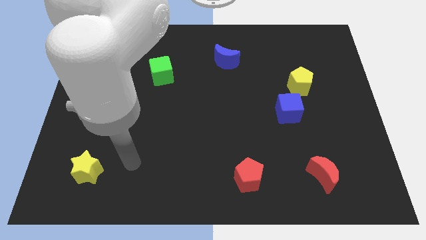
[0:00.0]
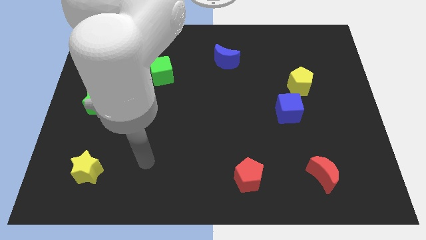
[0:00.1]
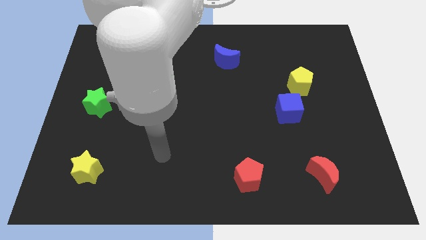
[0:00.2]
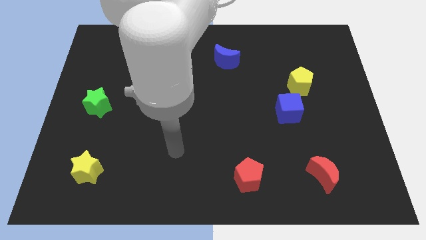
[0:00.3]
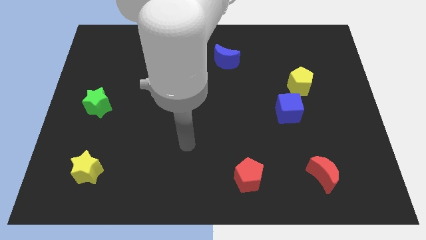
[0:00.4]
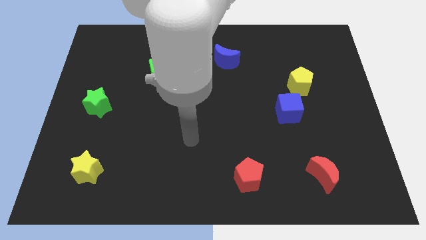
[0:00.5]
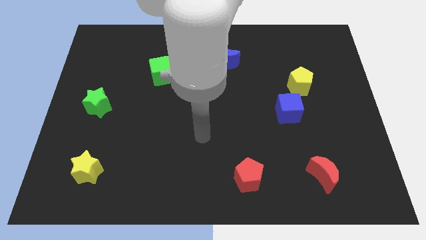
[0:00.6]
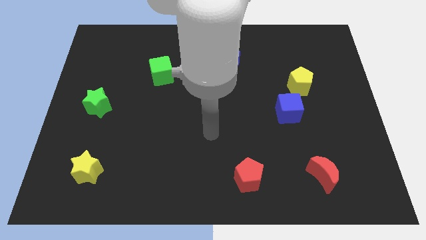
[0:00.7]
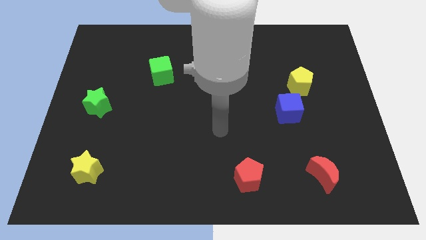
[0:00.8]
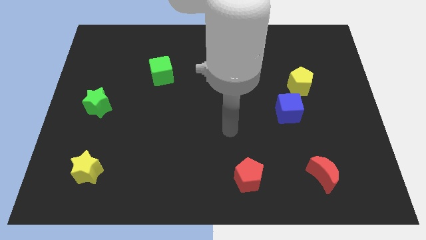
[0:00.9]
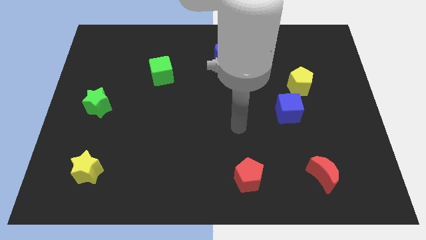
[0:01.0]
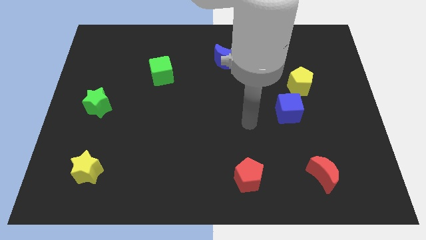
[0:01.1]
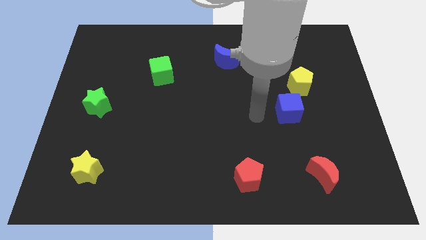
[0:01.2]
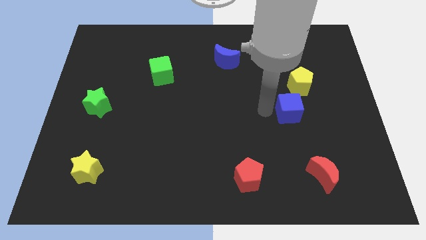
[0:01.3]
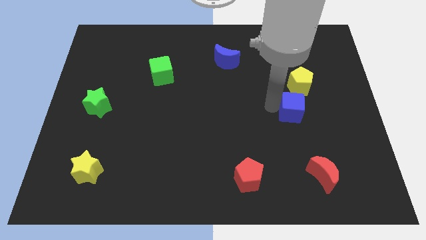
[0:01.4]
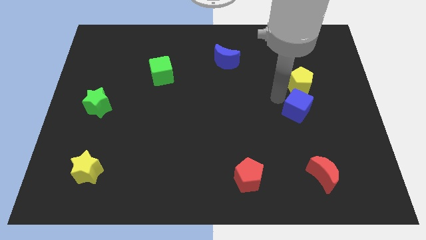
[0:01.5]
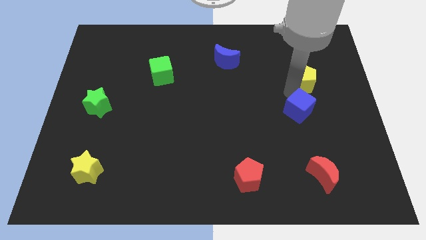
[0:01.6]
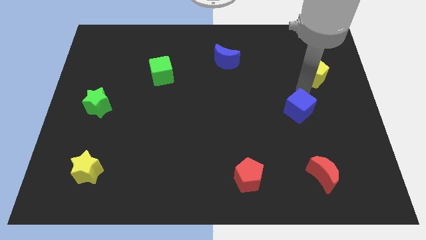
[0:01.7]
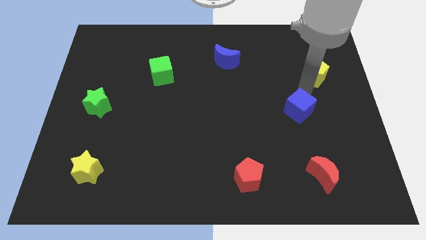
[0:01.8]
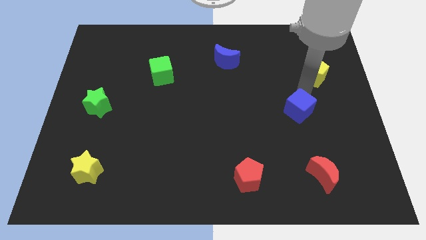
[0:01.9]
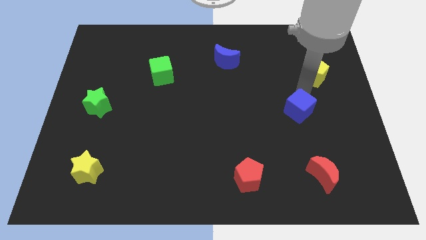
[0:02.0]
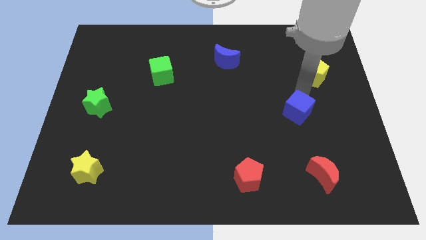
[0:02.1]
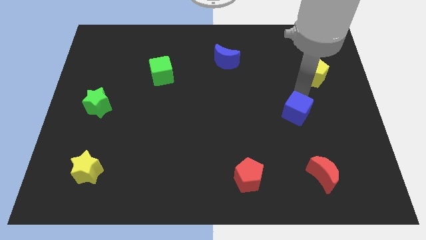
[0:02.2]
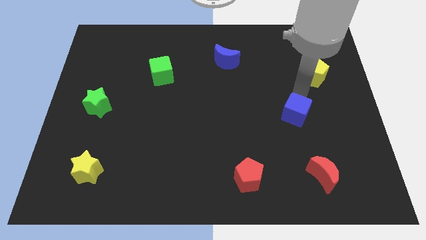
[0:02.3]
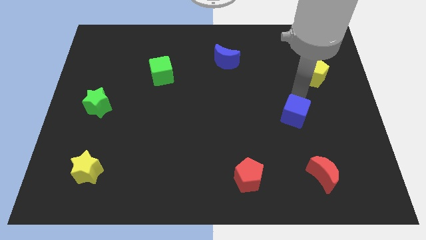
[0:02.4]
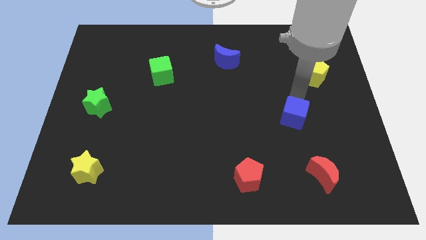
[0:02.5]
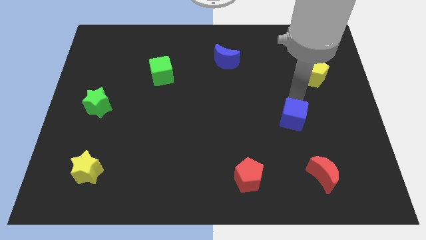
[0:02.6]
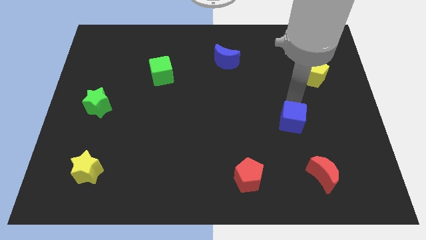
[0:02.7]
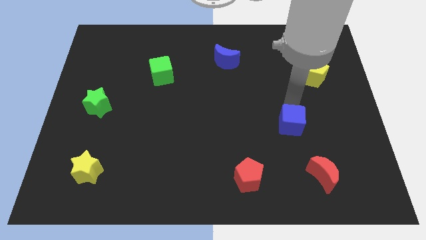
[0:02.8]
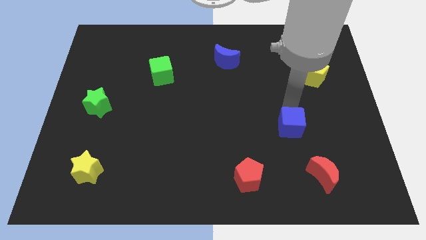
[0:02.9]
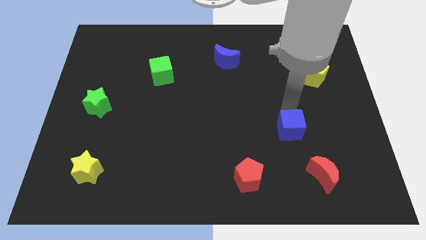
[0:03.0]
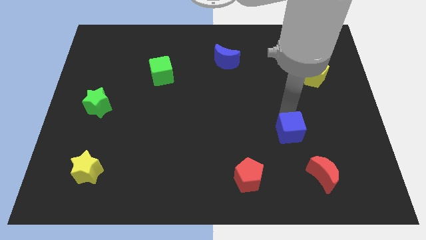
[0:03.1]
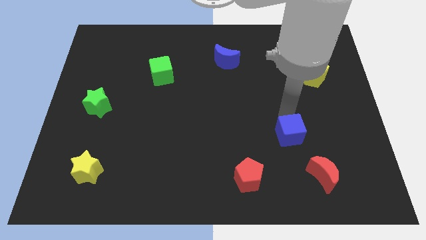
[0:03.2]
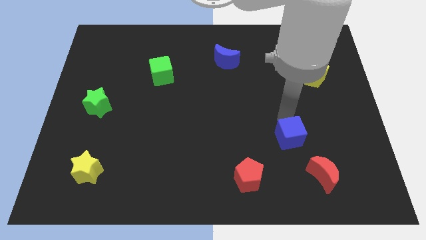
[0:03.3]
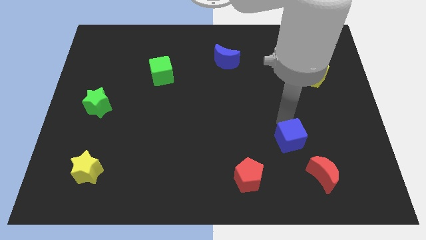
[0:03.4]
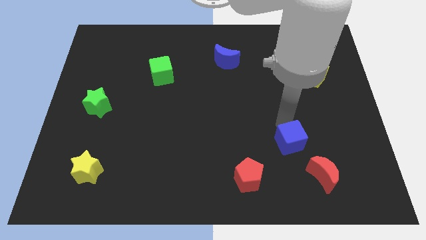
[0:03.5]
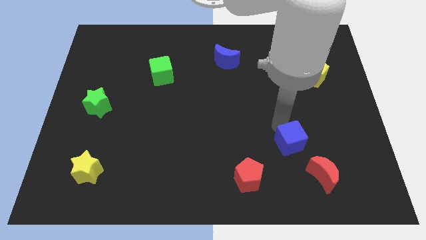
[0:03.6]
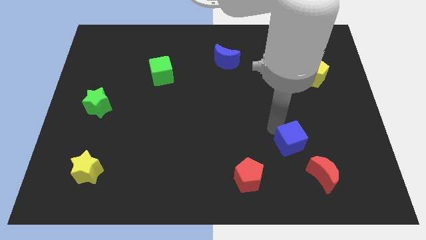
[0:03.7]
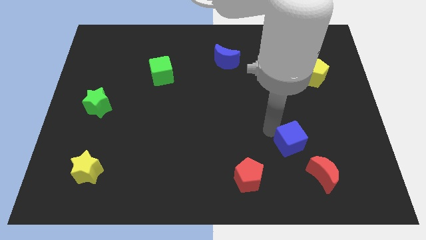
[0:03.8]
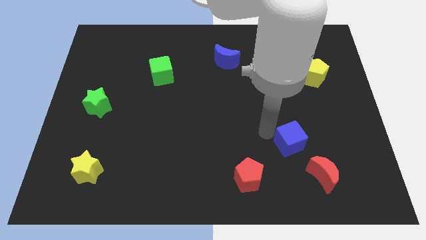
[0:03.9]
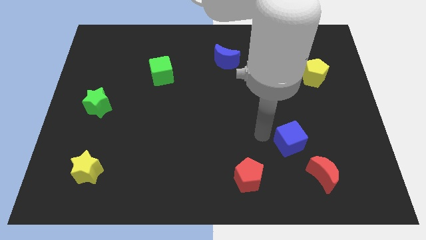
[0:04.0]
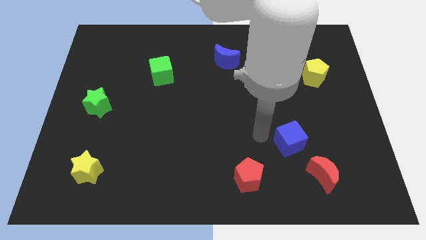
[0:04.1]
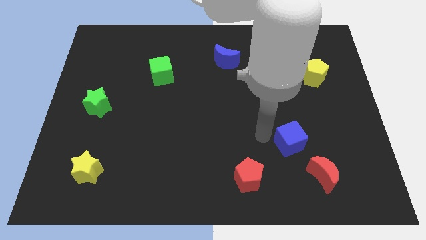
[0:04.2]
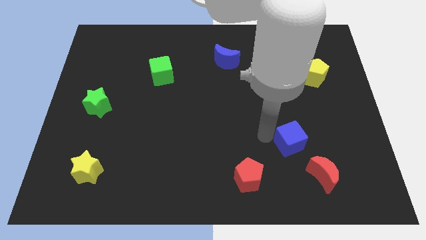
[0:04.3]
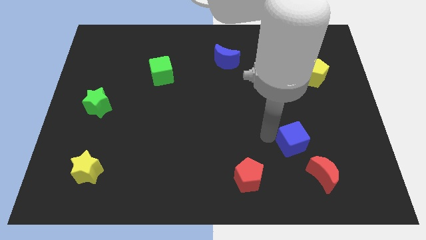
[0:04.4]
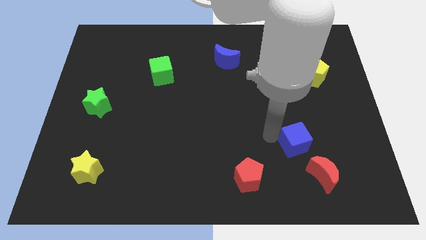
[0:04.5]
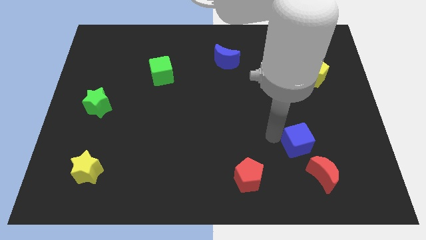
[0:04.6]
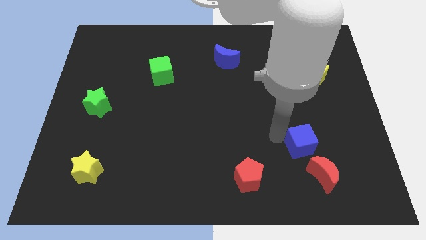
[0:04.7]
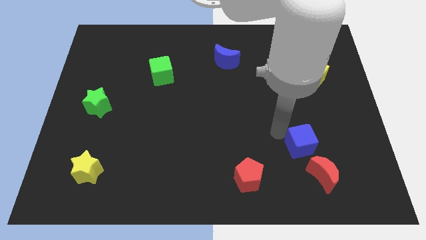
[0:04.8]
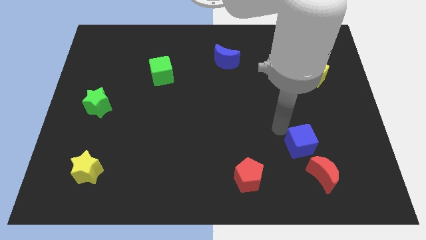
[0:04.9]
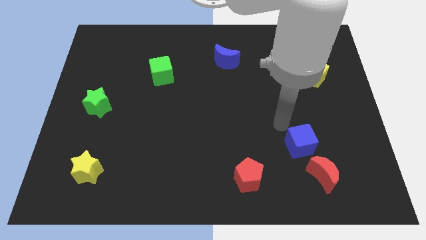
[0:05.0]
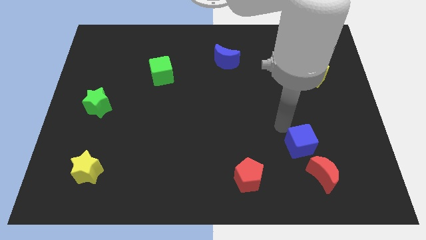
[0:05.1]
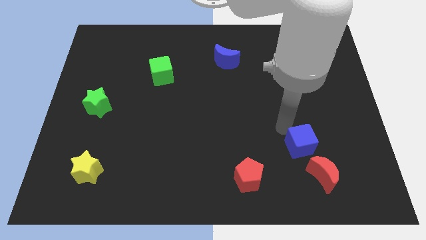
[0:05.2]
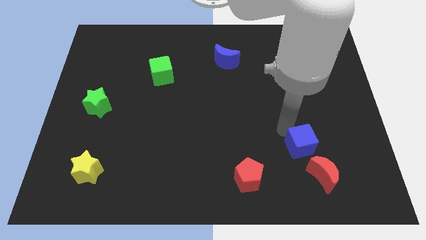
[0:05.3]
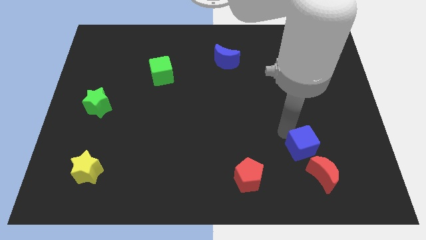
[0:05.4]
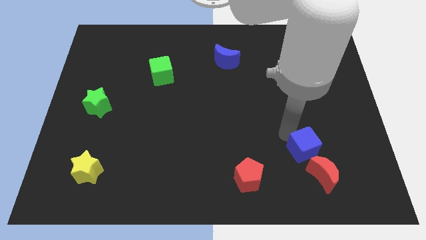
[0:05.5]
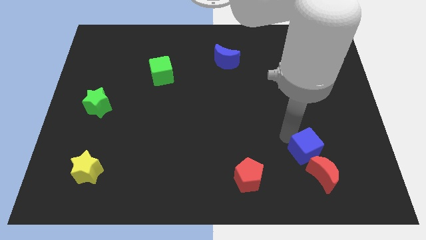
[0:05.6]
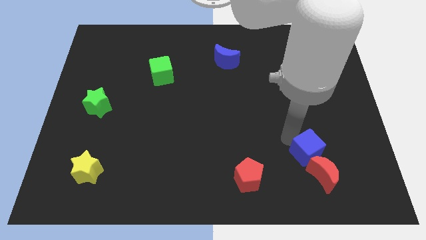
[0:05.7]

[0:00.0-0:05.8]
put the blue cube towards the red moon

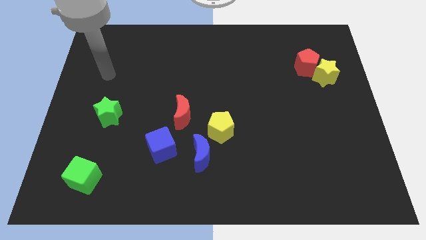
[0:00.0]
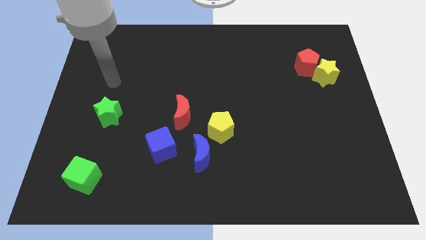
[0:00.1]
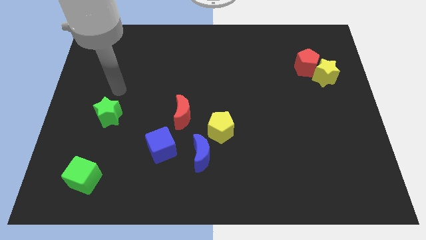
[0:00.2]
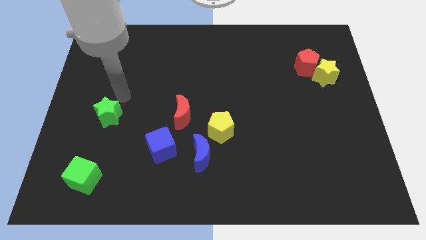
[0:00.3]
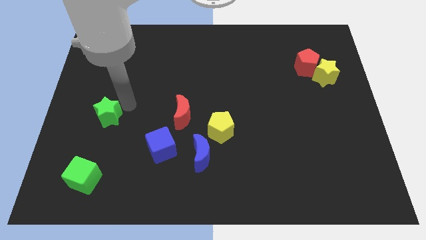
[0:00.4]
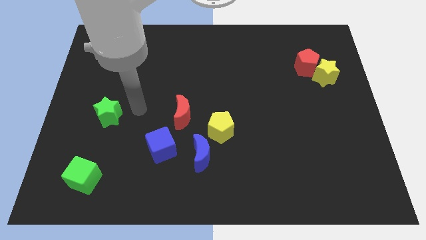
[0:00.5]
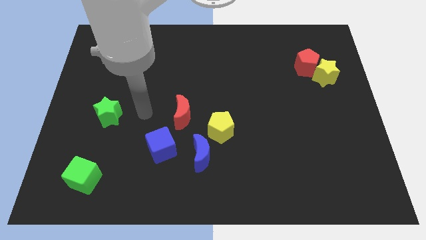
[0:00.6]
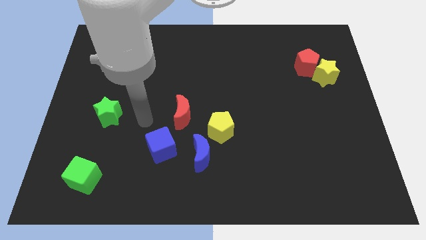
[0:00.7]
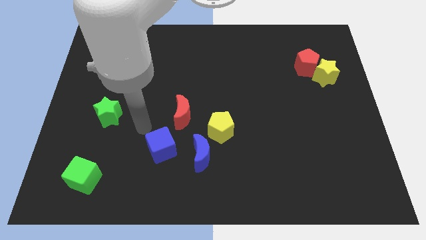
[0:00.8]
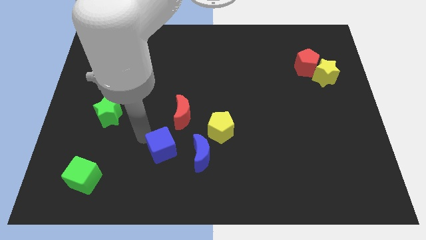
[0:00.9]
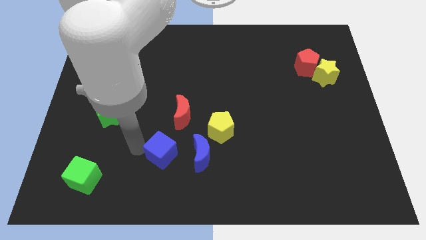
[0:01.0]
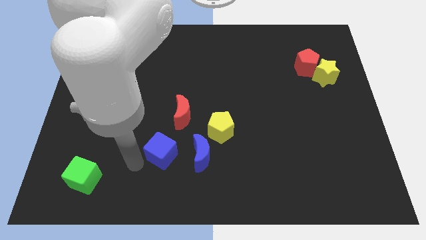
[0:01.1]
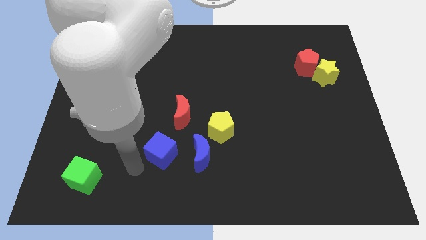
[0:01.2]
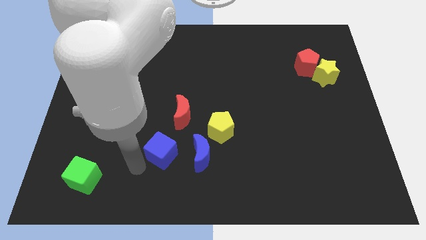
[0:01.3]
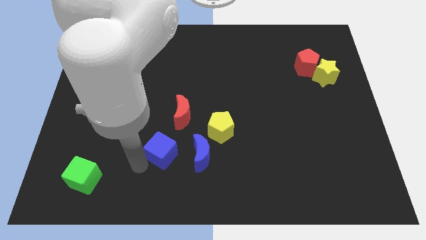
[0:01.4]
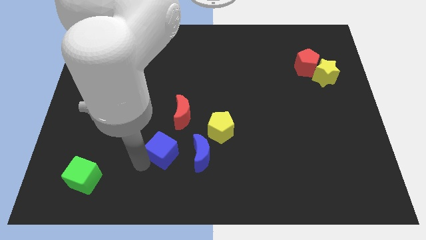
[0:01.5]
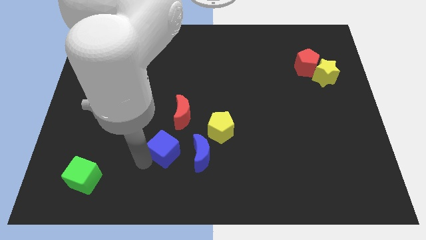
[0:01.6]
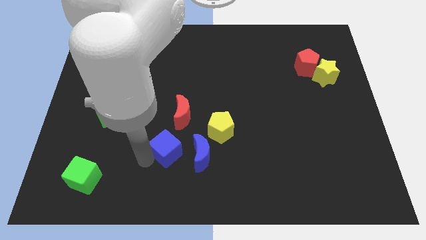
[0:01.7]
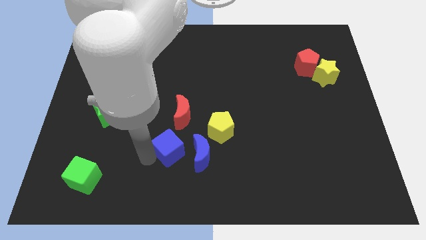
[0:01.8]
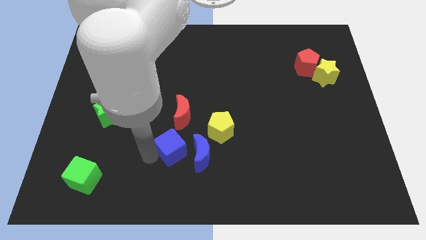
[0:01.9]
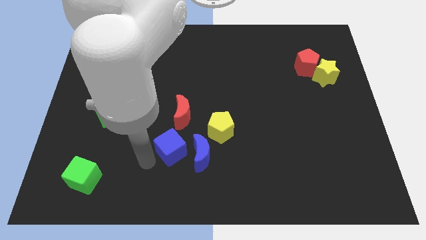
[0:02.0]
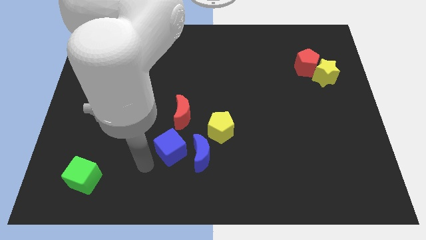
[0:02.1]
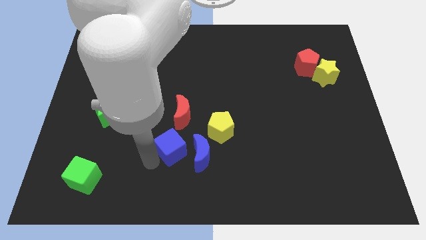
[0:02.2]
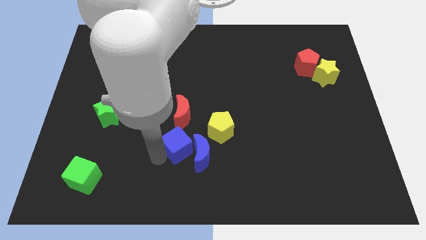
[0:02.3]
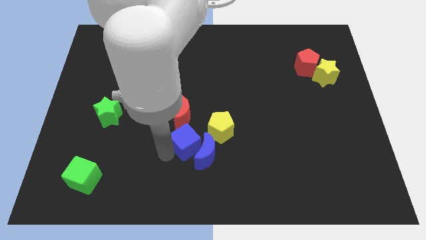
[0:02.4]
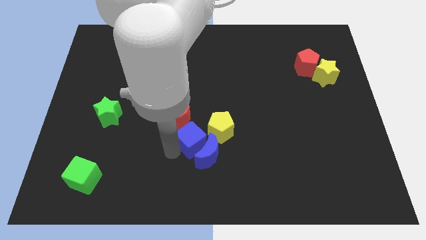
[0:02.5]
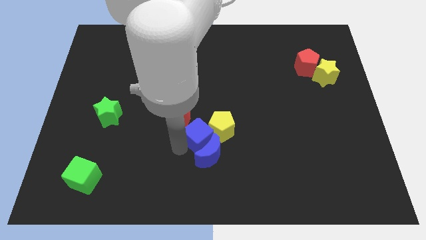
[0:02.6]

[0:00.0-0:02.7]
move the blue cube next to the yellow pentagon
